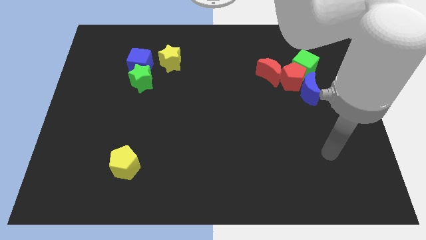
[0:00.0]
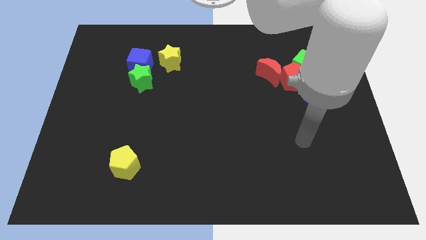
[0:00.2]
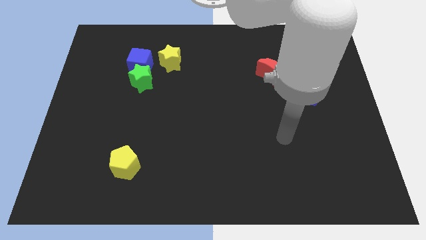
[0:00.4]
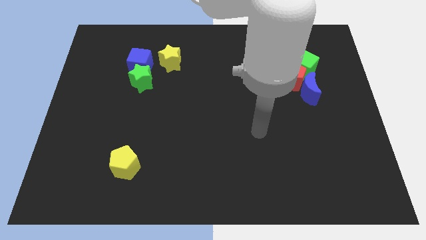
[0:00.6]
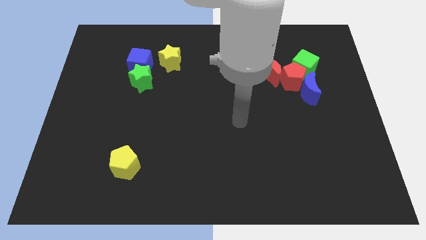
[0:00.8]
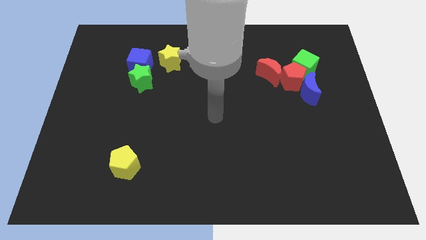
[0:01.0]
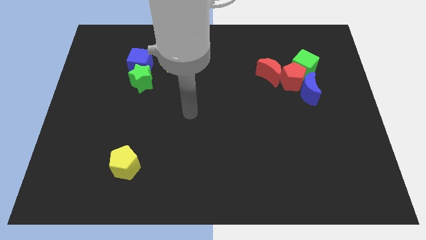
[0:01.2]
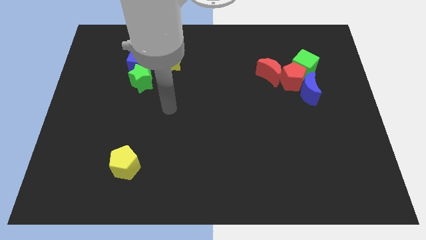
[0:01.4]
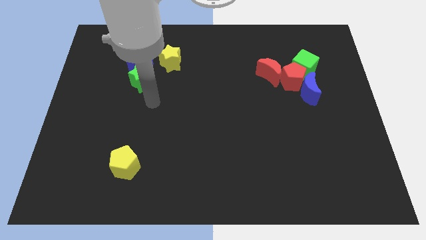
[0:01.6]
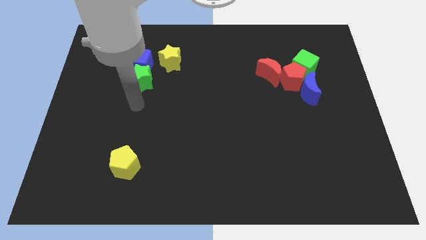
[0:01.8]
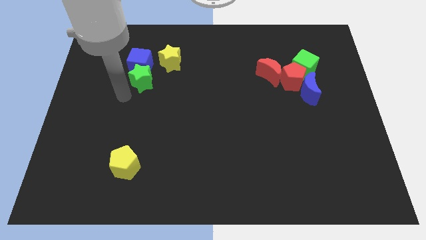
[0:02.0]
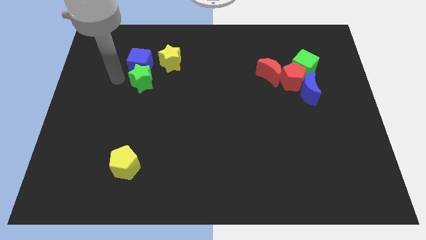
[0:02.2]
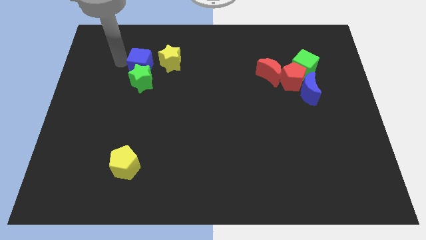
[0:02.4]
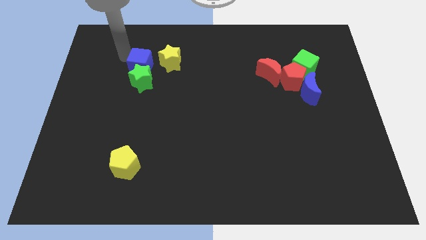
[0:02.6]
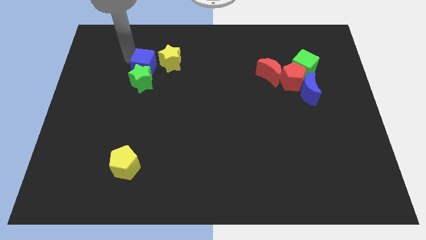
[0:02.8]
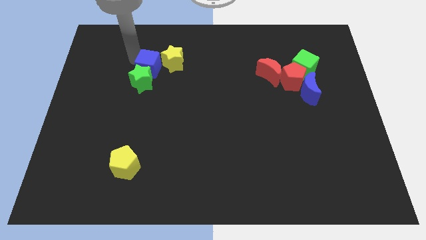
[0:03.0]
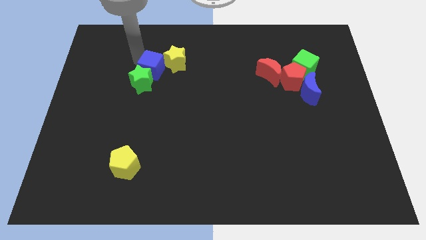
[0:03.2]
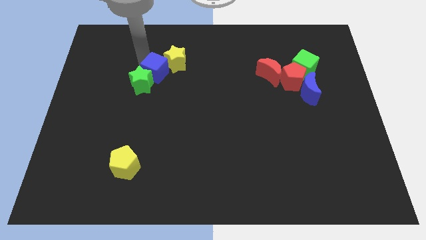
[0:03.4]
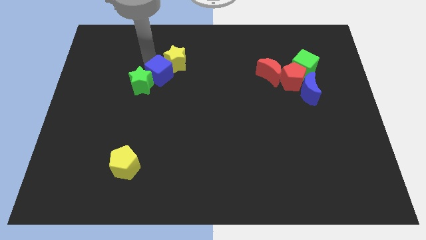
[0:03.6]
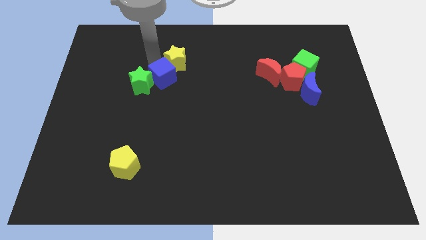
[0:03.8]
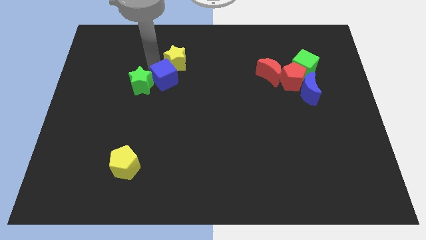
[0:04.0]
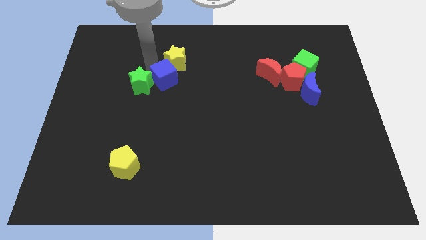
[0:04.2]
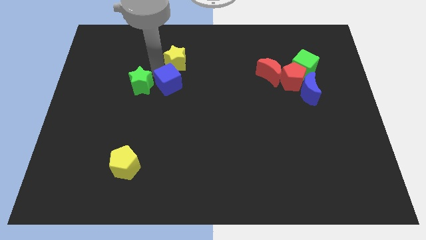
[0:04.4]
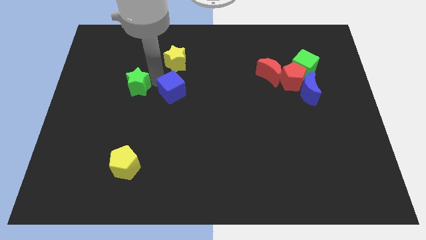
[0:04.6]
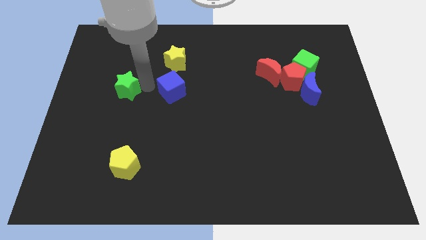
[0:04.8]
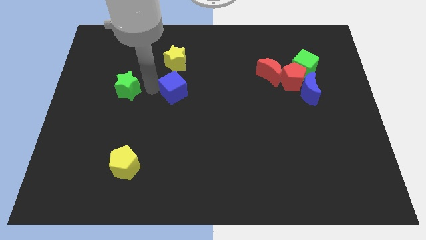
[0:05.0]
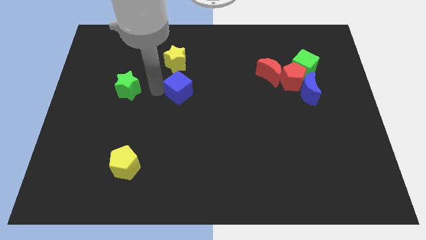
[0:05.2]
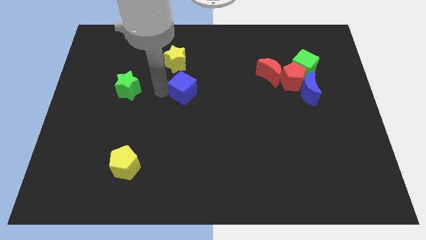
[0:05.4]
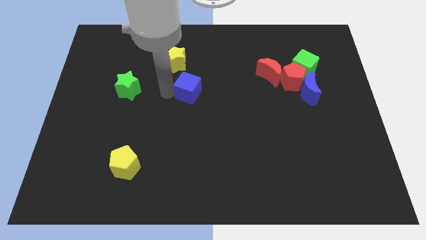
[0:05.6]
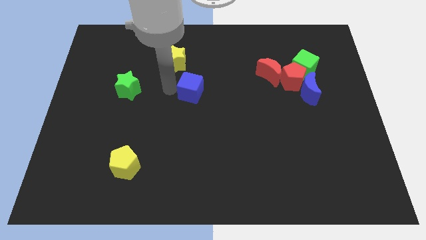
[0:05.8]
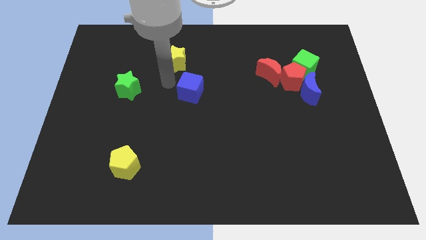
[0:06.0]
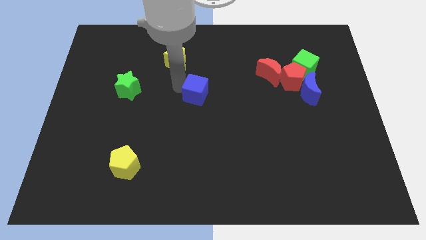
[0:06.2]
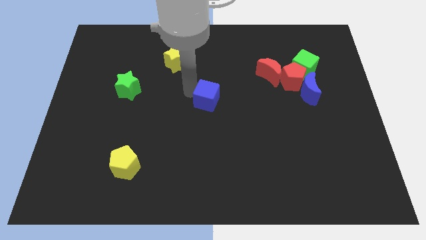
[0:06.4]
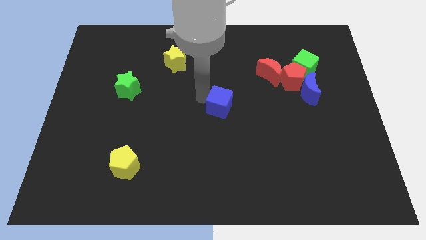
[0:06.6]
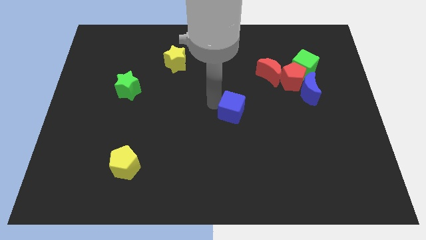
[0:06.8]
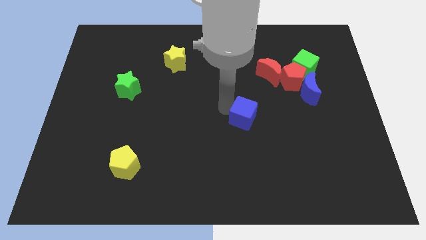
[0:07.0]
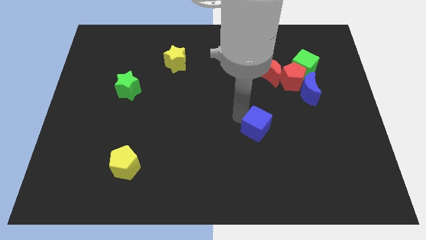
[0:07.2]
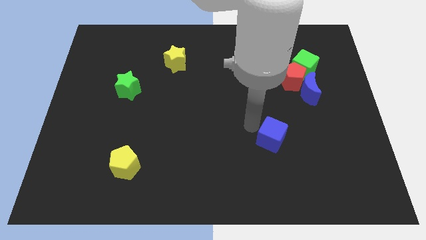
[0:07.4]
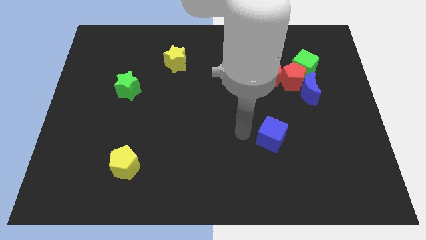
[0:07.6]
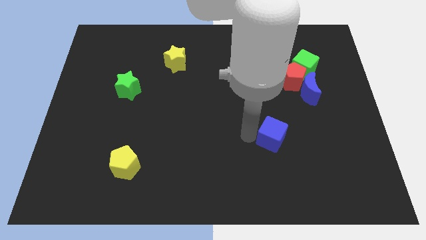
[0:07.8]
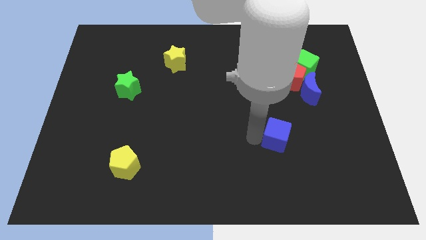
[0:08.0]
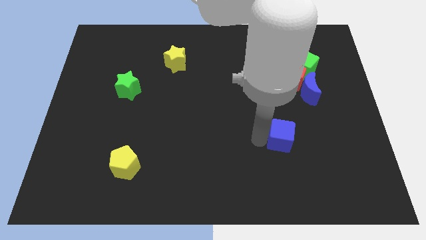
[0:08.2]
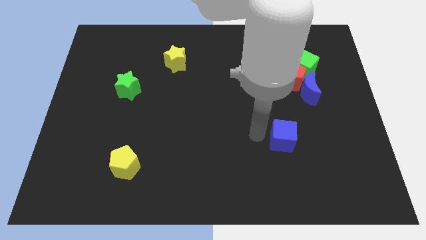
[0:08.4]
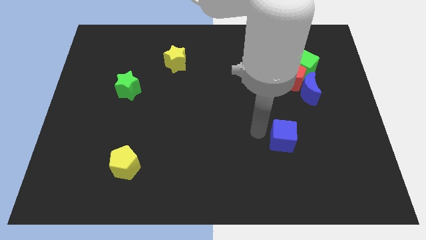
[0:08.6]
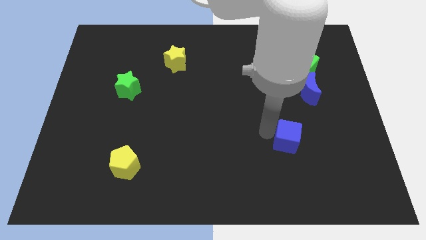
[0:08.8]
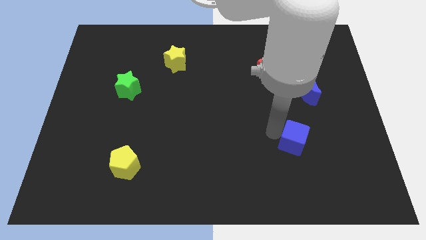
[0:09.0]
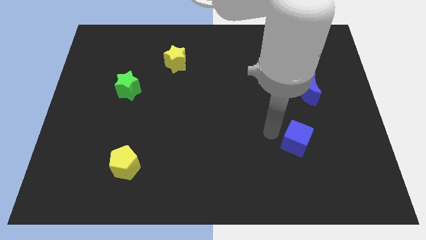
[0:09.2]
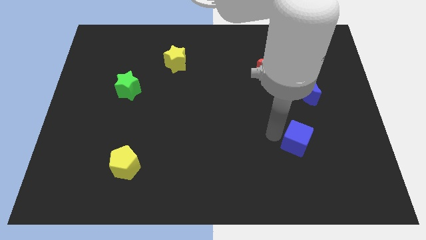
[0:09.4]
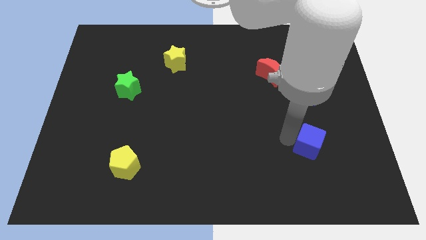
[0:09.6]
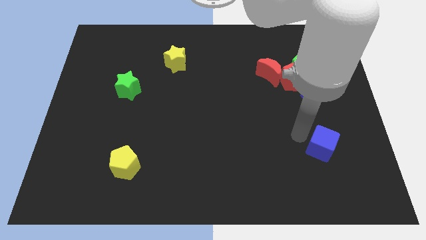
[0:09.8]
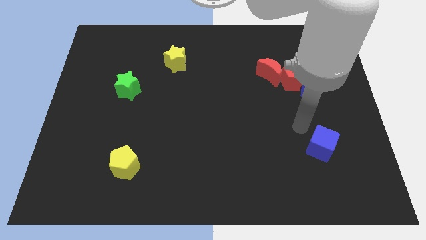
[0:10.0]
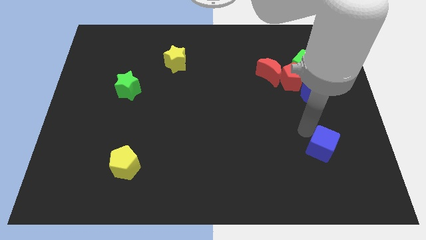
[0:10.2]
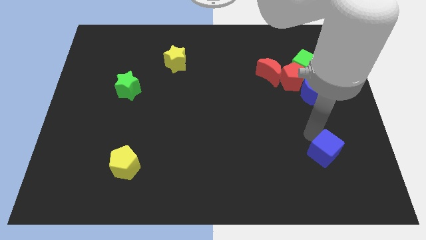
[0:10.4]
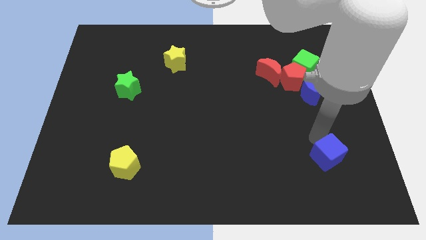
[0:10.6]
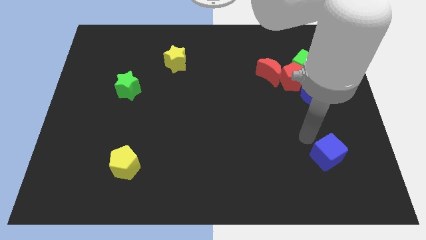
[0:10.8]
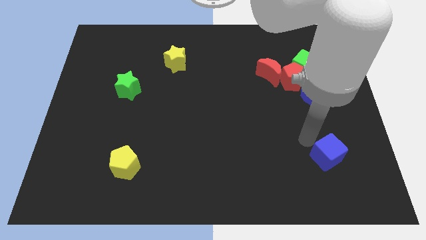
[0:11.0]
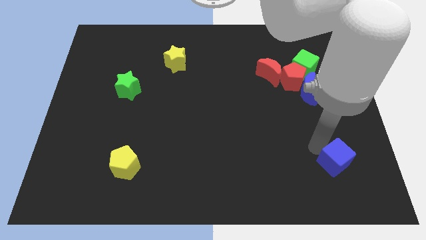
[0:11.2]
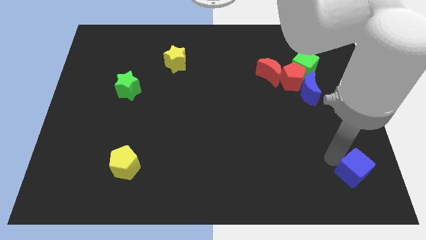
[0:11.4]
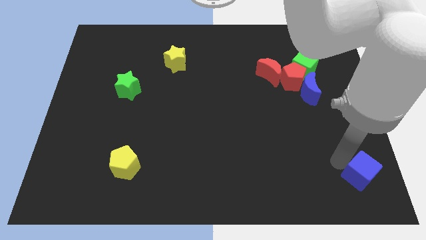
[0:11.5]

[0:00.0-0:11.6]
move the blue cube to the bottom right corner
